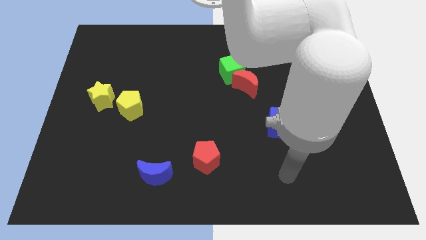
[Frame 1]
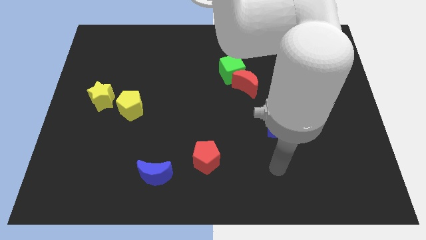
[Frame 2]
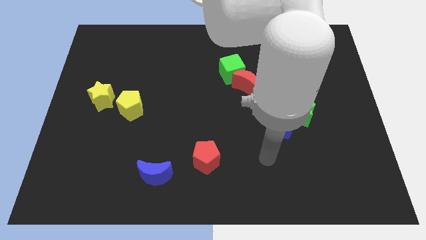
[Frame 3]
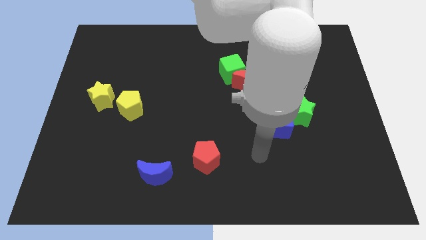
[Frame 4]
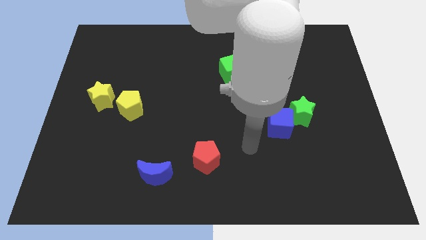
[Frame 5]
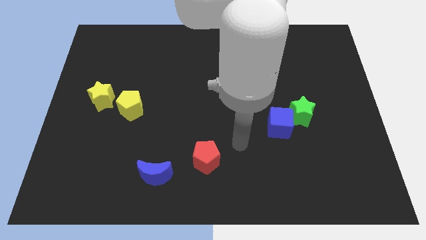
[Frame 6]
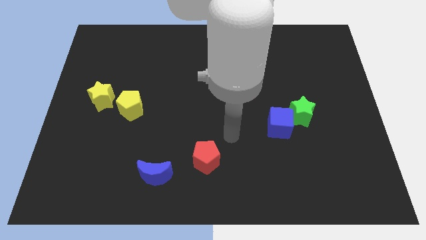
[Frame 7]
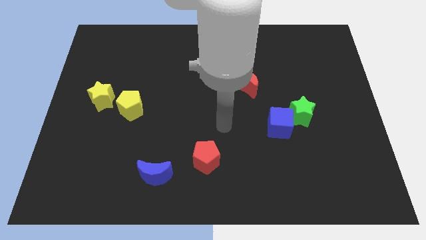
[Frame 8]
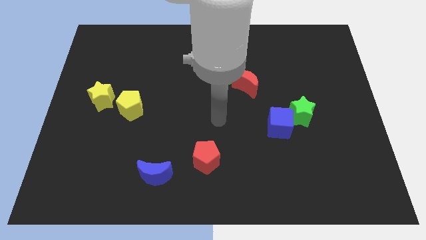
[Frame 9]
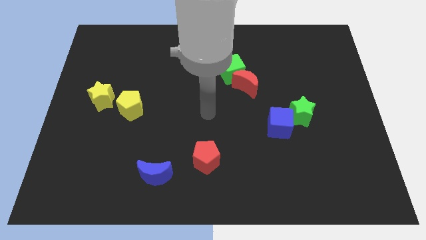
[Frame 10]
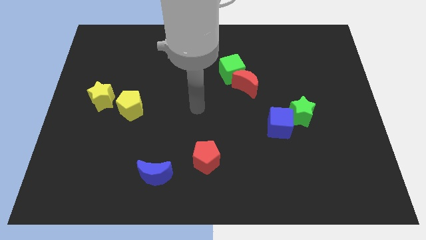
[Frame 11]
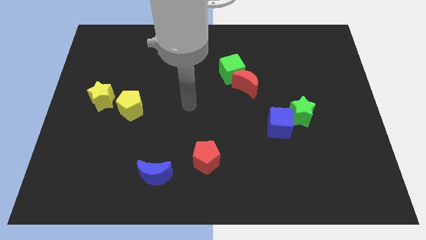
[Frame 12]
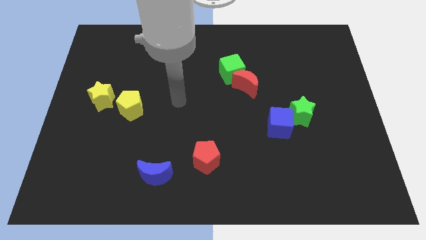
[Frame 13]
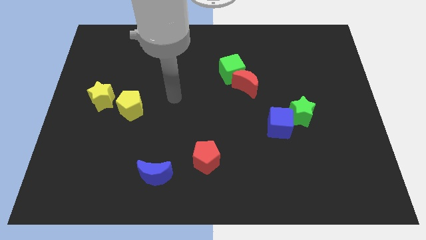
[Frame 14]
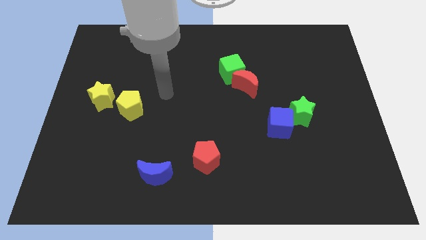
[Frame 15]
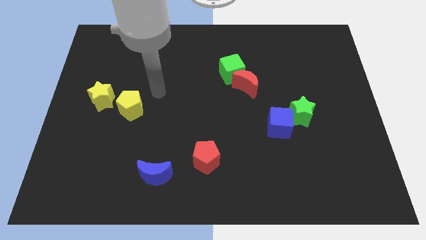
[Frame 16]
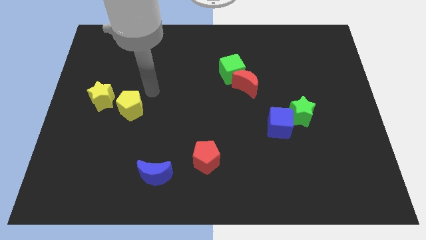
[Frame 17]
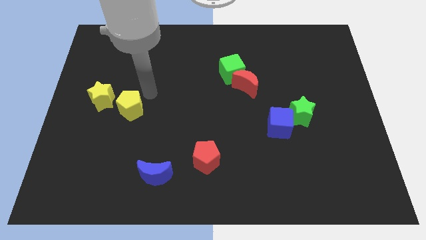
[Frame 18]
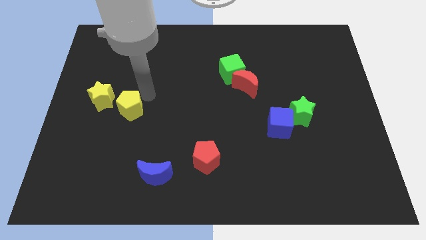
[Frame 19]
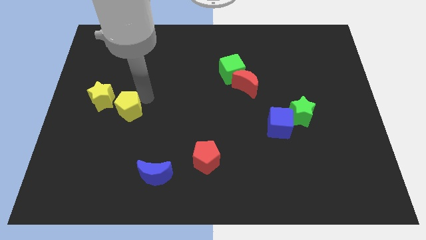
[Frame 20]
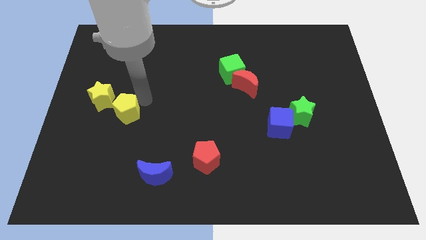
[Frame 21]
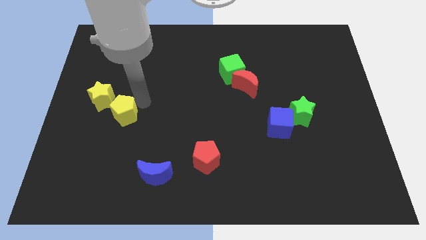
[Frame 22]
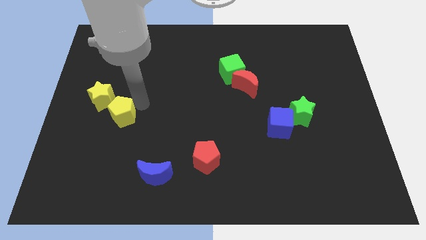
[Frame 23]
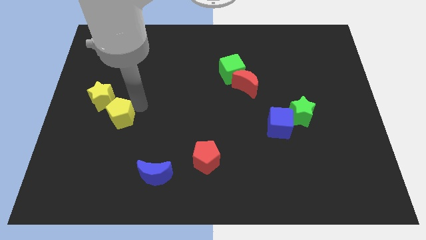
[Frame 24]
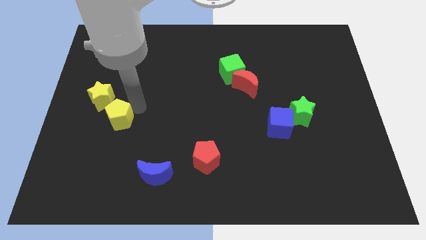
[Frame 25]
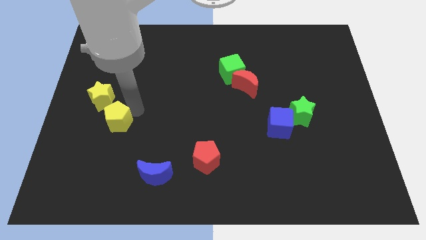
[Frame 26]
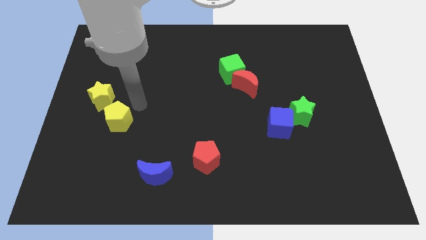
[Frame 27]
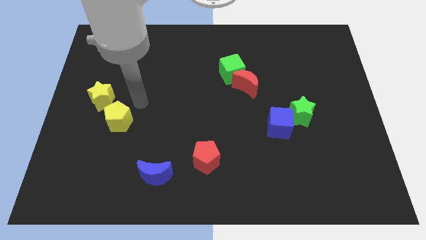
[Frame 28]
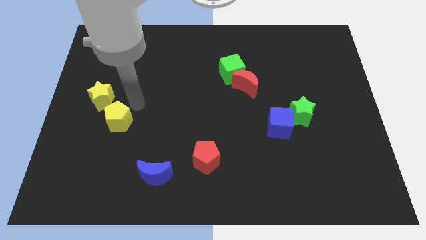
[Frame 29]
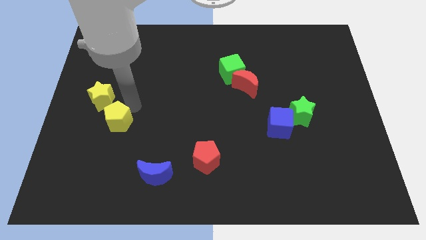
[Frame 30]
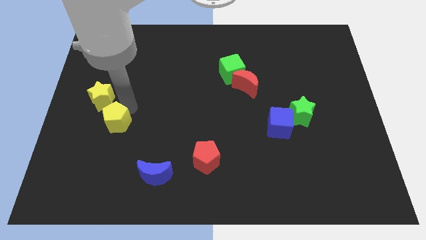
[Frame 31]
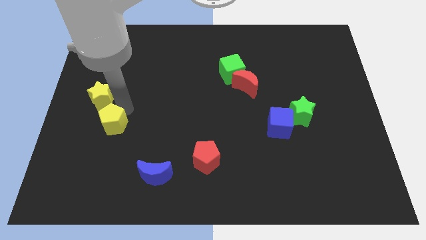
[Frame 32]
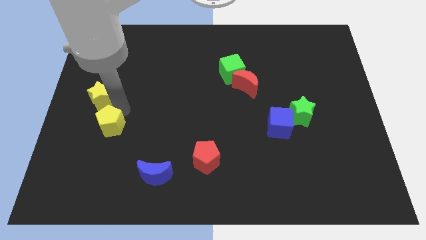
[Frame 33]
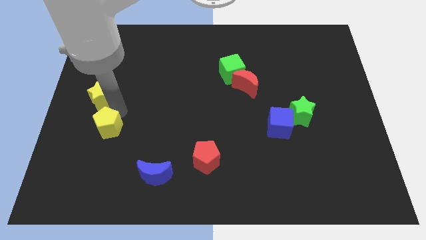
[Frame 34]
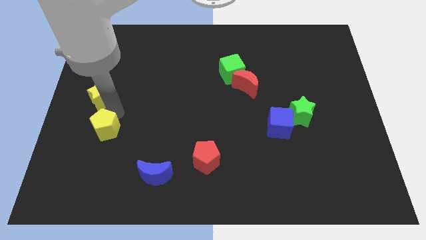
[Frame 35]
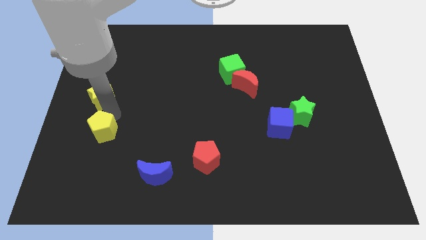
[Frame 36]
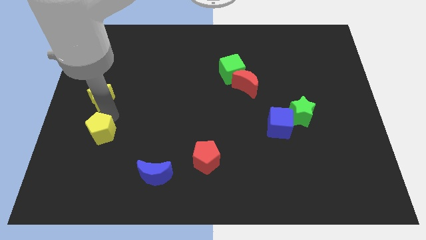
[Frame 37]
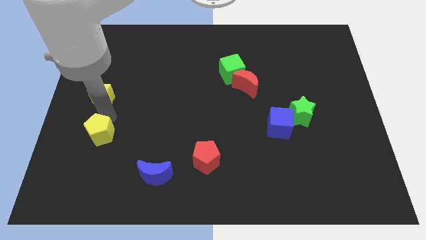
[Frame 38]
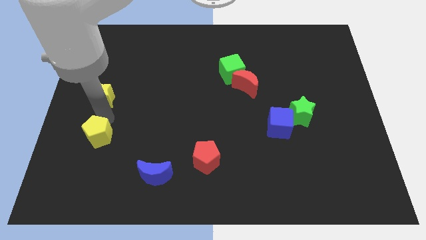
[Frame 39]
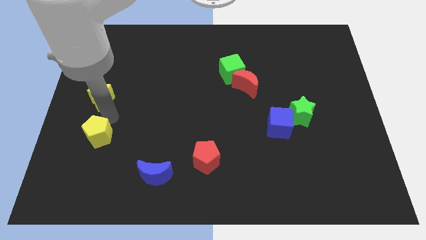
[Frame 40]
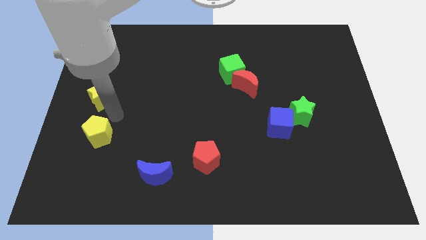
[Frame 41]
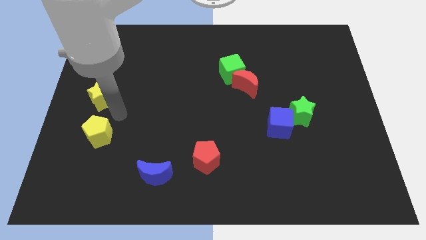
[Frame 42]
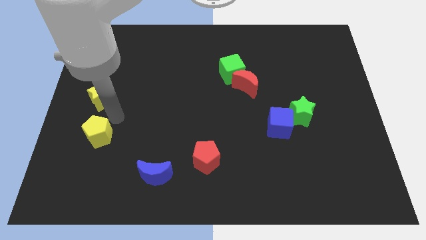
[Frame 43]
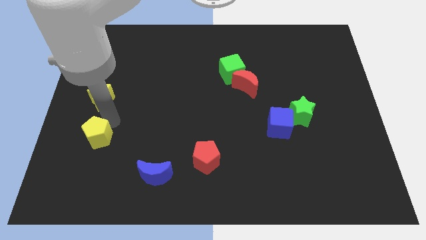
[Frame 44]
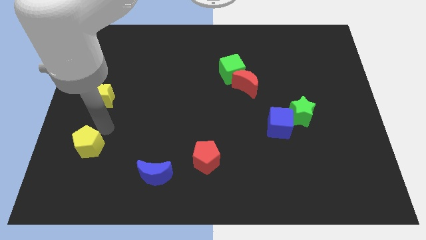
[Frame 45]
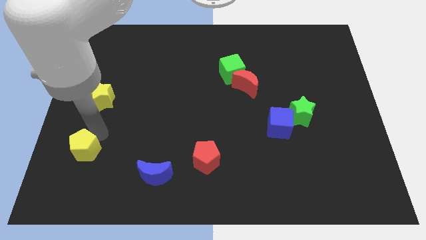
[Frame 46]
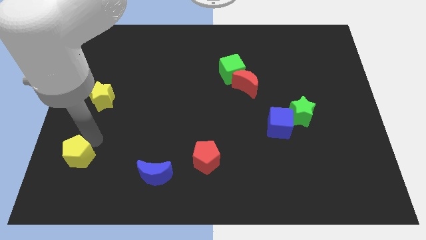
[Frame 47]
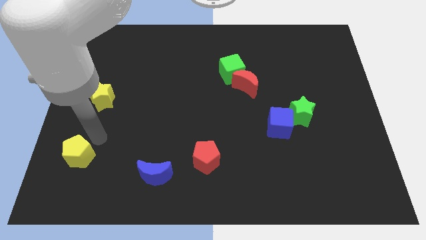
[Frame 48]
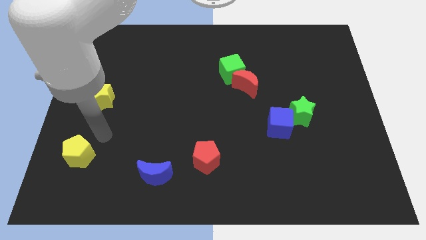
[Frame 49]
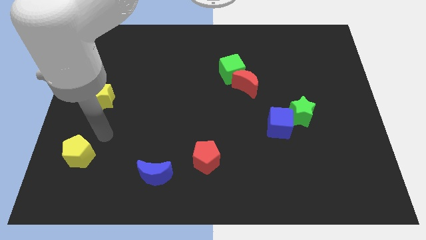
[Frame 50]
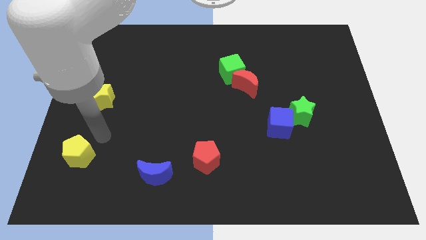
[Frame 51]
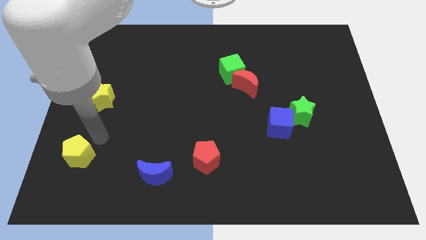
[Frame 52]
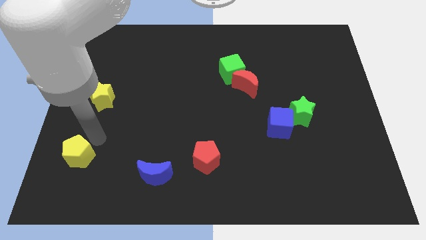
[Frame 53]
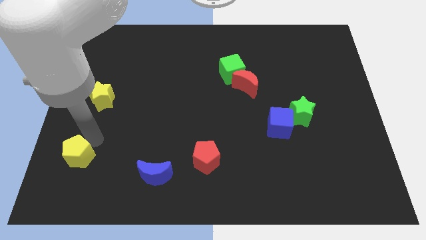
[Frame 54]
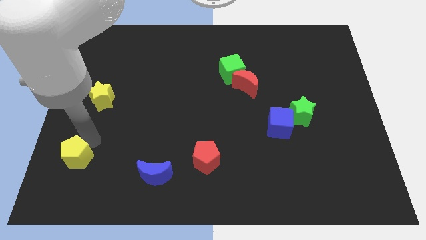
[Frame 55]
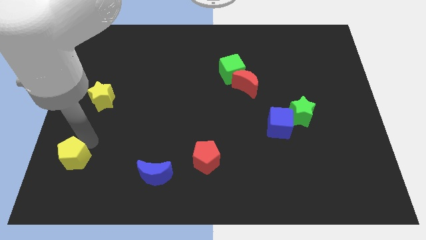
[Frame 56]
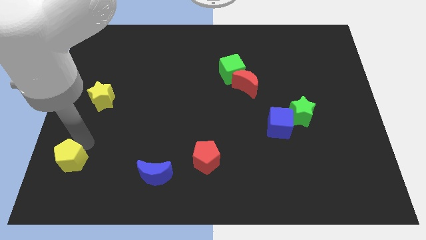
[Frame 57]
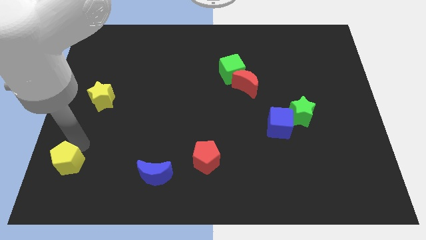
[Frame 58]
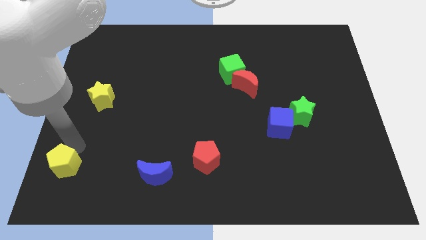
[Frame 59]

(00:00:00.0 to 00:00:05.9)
slide the yellow pentagon to the bottom left

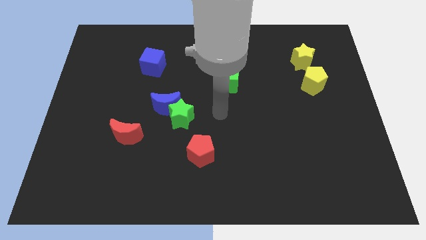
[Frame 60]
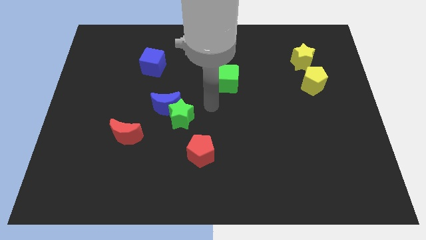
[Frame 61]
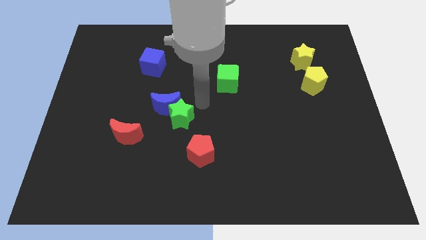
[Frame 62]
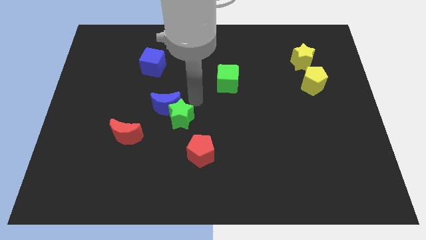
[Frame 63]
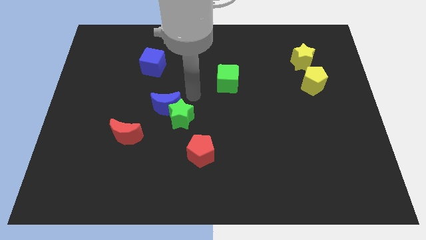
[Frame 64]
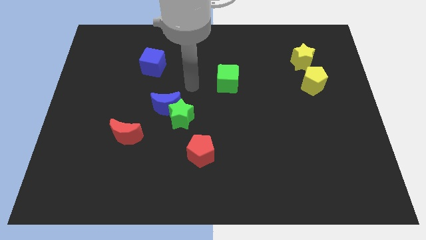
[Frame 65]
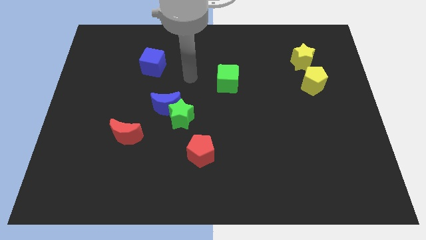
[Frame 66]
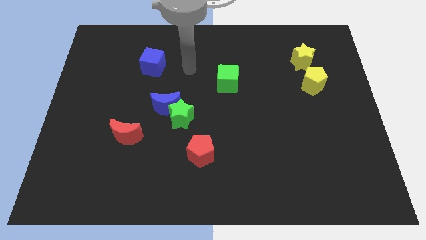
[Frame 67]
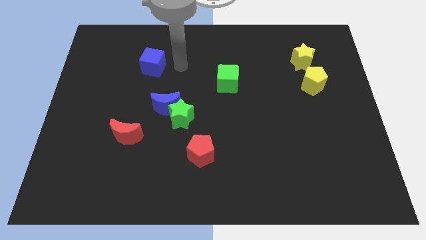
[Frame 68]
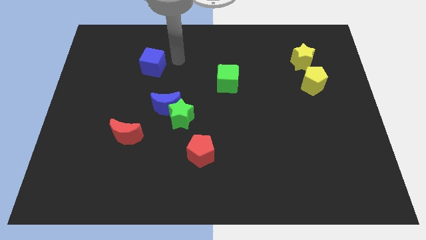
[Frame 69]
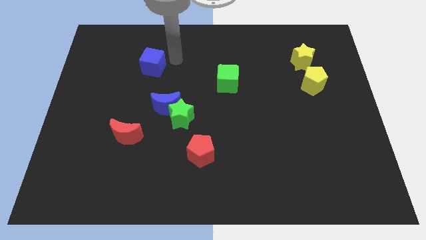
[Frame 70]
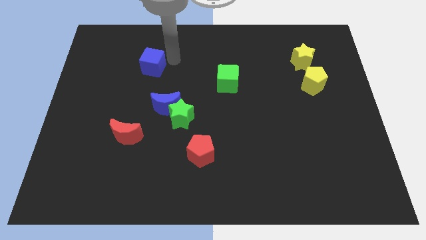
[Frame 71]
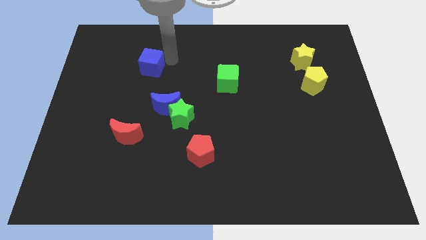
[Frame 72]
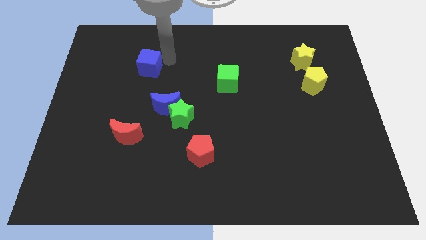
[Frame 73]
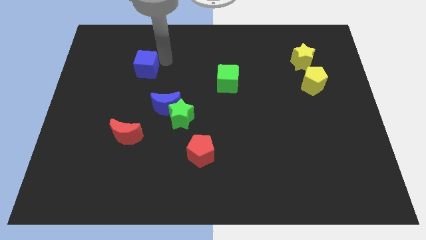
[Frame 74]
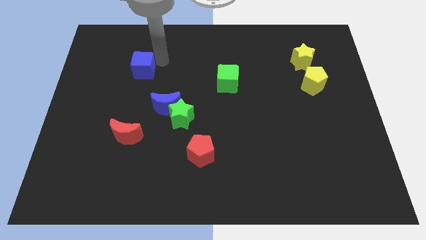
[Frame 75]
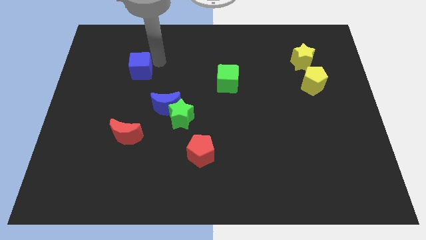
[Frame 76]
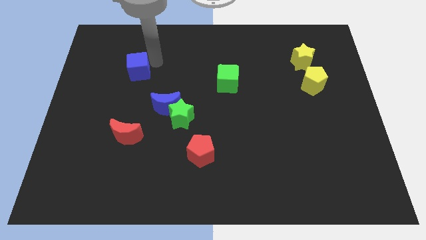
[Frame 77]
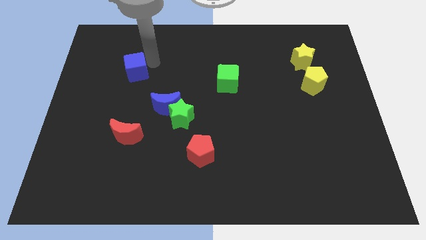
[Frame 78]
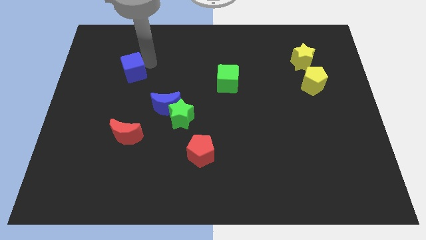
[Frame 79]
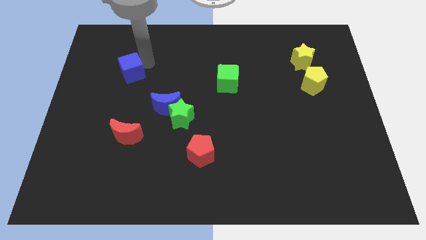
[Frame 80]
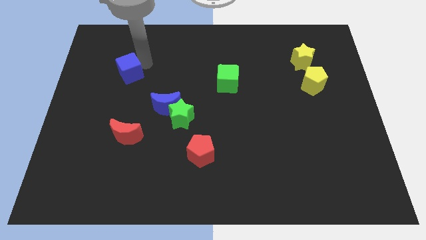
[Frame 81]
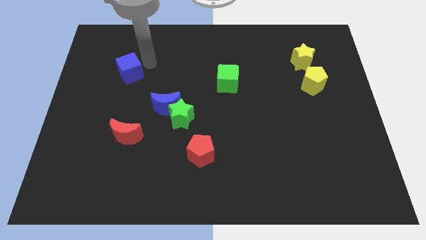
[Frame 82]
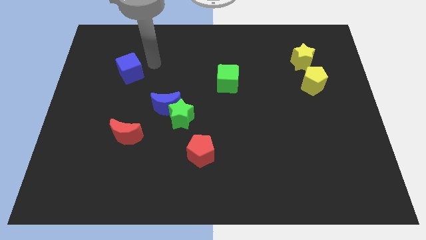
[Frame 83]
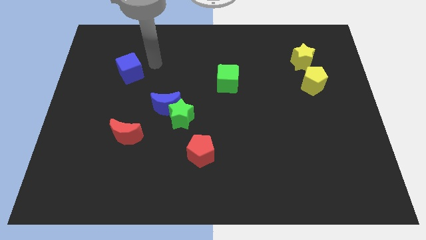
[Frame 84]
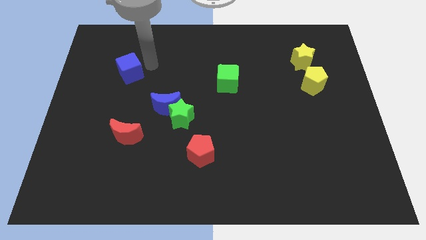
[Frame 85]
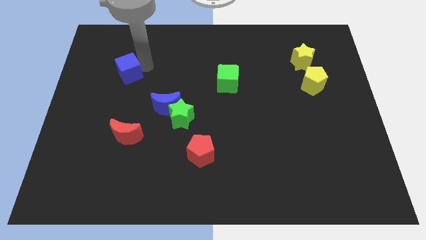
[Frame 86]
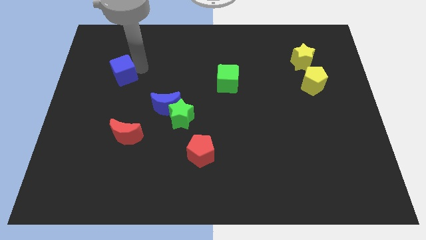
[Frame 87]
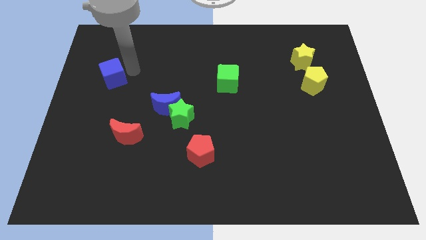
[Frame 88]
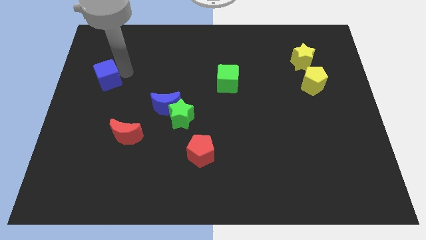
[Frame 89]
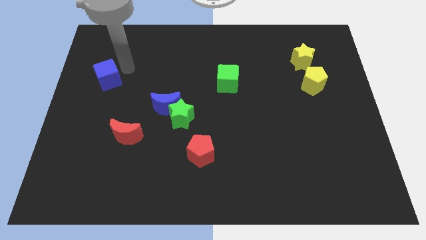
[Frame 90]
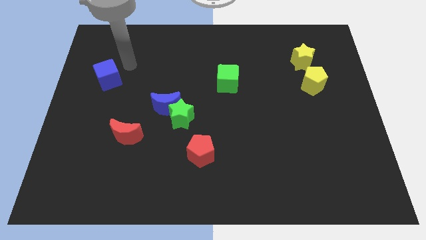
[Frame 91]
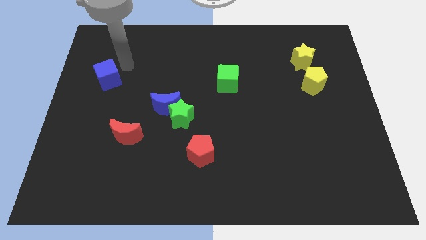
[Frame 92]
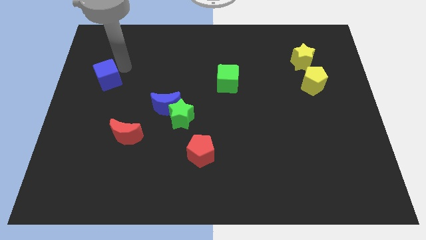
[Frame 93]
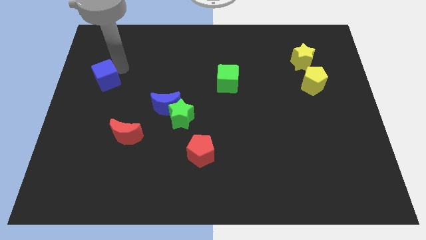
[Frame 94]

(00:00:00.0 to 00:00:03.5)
push the blue cube to the left side of the board
